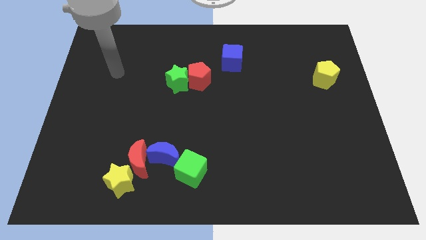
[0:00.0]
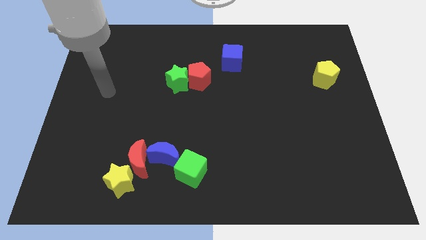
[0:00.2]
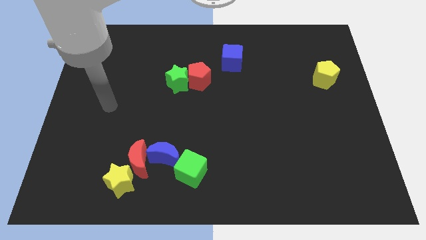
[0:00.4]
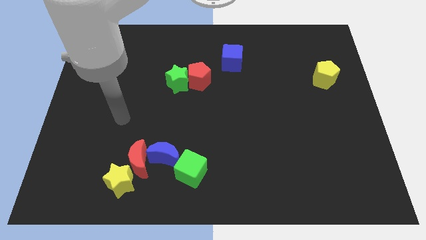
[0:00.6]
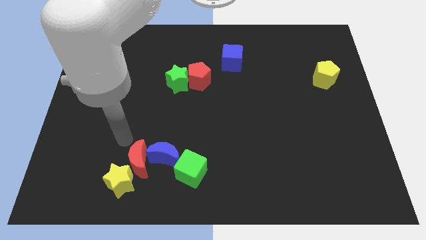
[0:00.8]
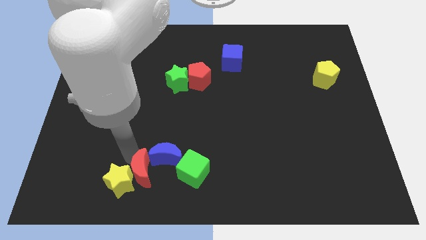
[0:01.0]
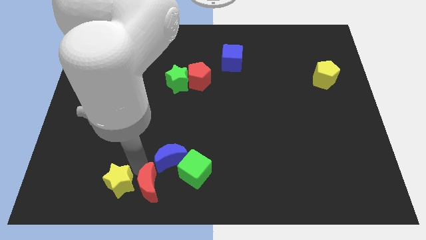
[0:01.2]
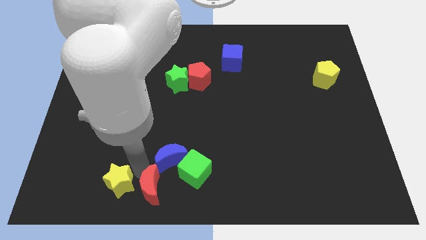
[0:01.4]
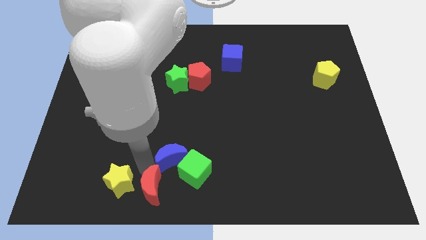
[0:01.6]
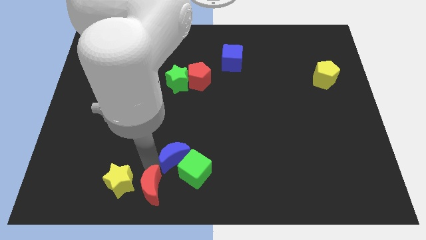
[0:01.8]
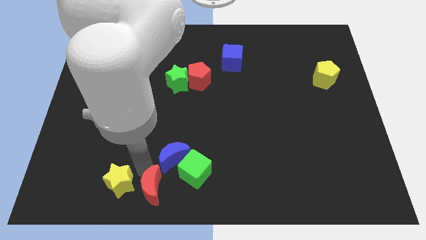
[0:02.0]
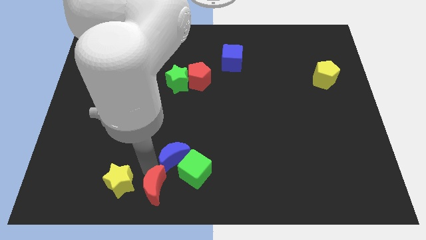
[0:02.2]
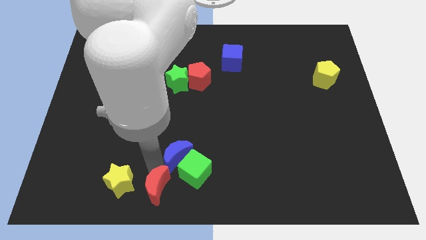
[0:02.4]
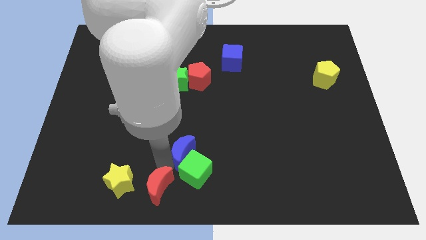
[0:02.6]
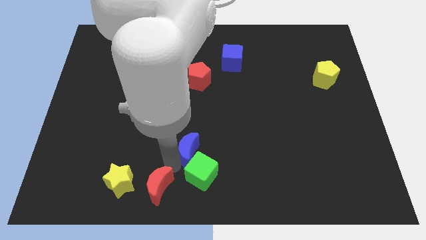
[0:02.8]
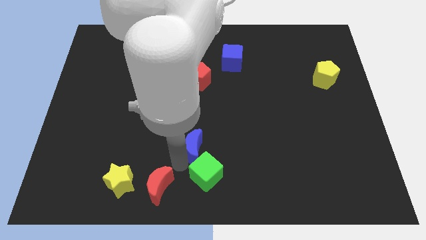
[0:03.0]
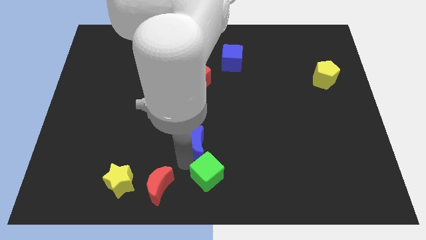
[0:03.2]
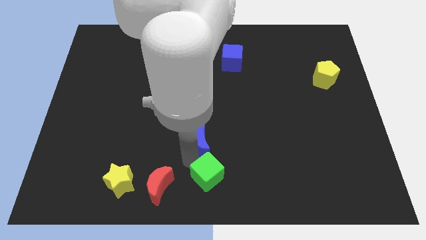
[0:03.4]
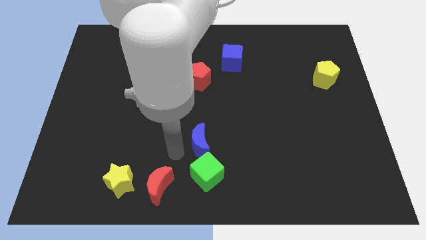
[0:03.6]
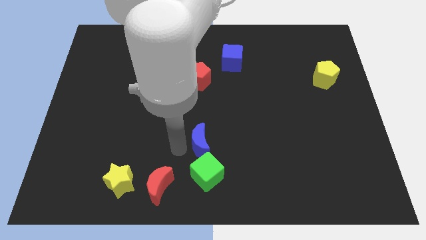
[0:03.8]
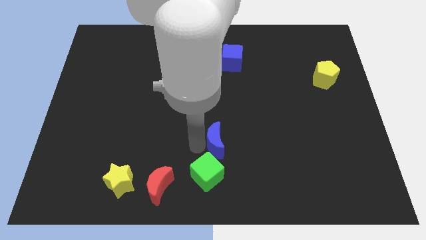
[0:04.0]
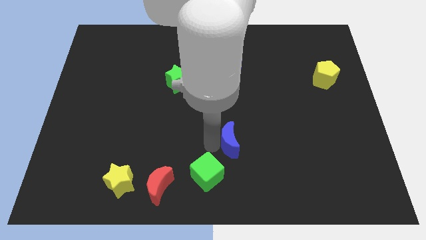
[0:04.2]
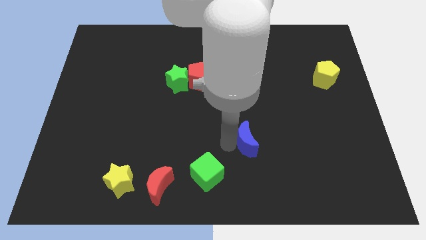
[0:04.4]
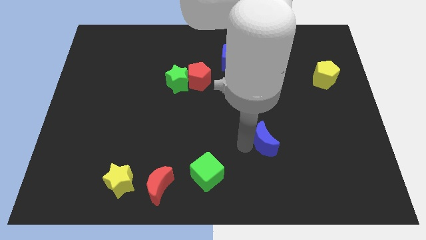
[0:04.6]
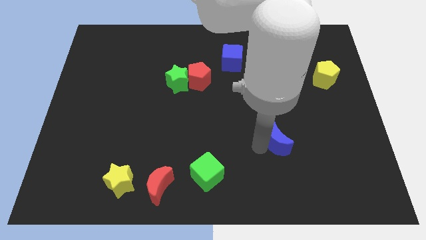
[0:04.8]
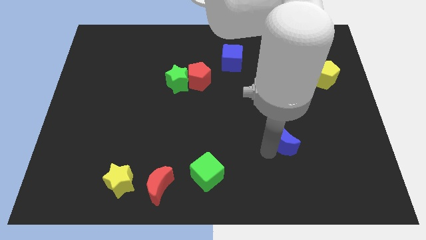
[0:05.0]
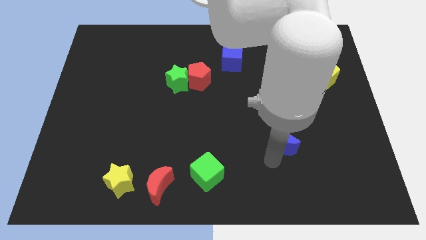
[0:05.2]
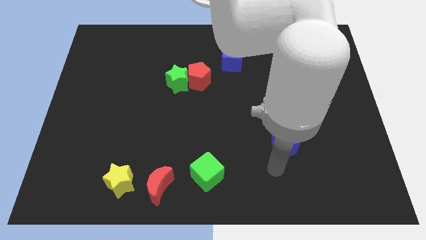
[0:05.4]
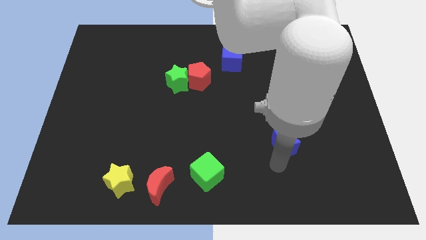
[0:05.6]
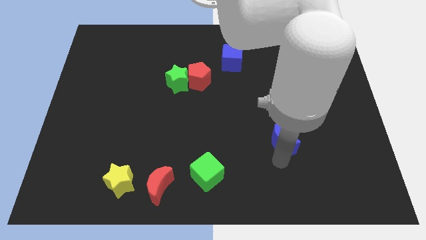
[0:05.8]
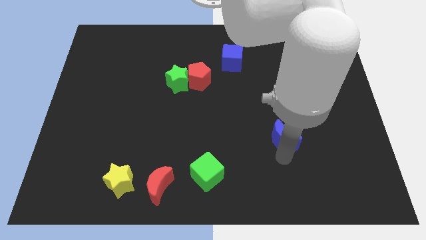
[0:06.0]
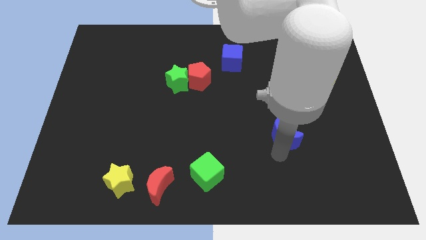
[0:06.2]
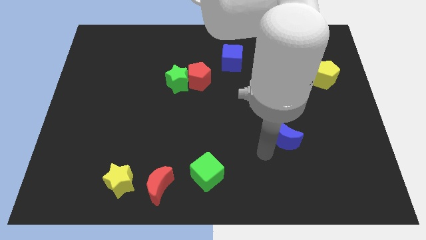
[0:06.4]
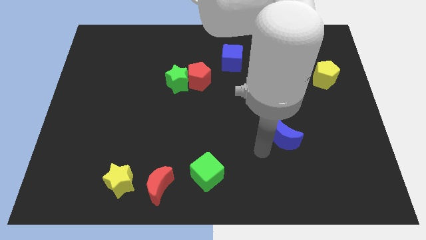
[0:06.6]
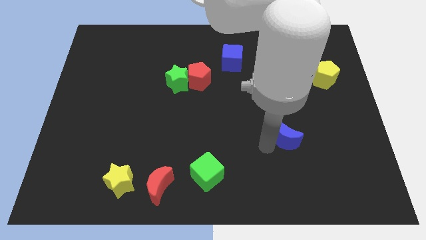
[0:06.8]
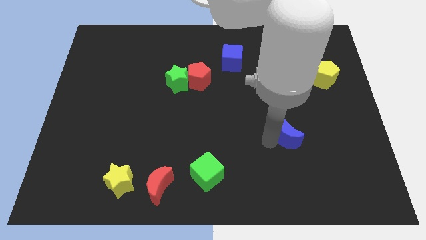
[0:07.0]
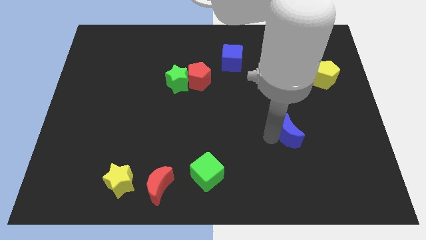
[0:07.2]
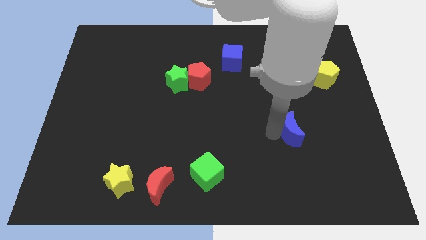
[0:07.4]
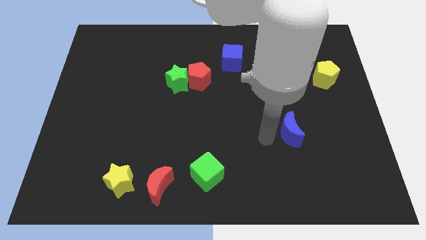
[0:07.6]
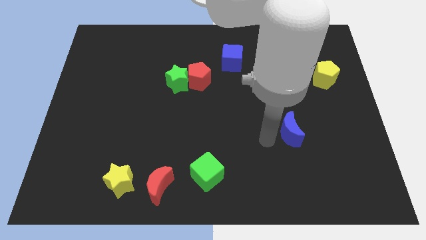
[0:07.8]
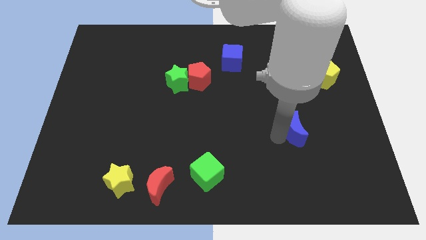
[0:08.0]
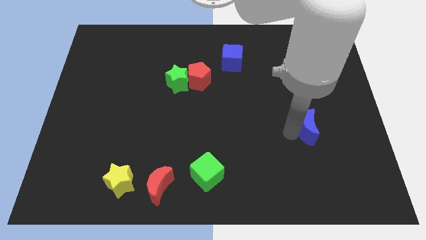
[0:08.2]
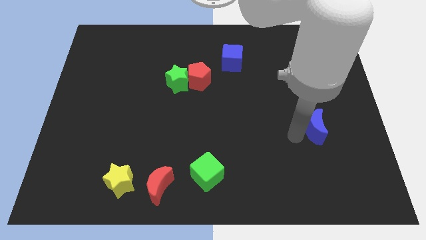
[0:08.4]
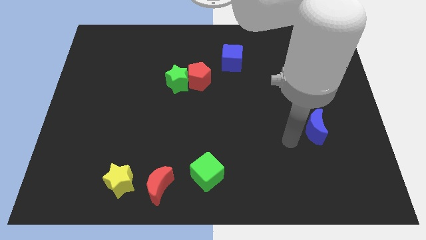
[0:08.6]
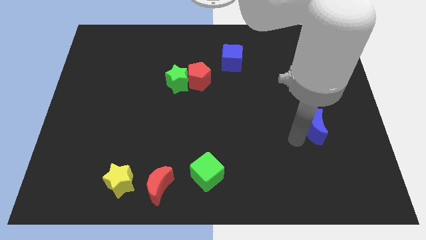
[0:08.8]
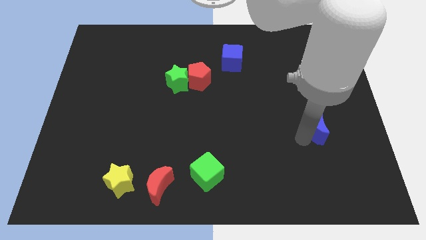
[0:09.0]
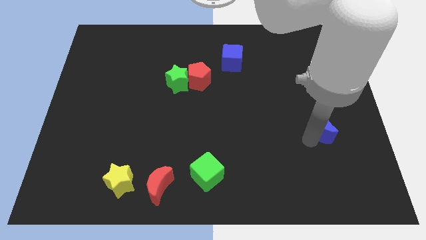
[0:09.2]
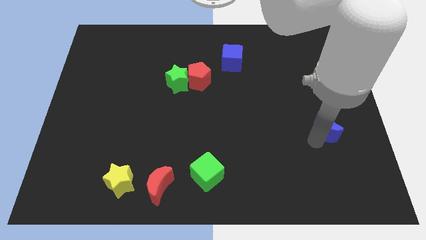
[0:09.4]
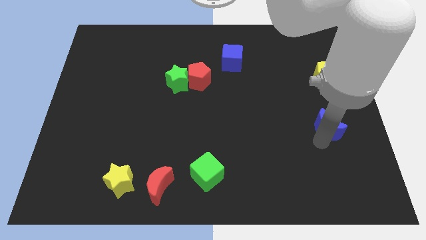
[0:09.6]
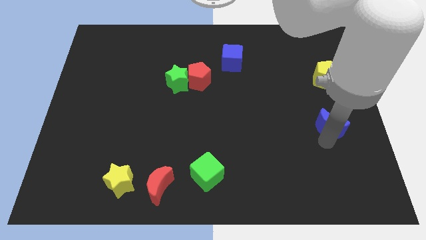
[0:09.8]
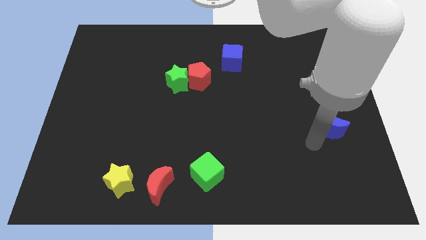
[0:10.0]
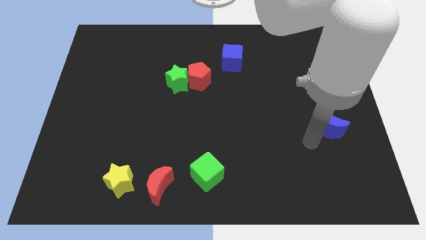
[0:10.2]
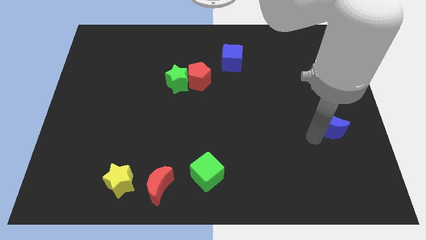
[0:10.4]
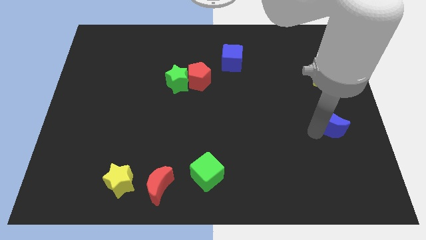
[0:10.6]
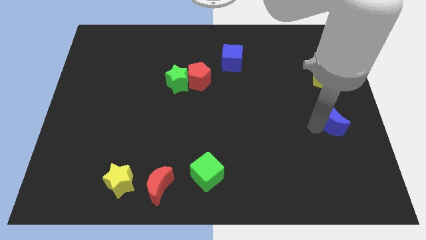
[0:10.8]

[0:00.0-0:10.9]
push the blue moon to the right side of the board

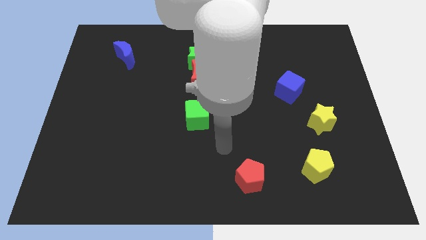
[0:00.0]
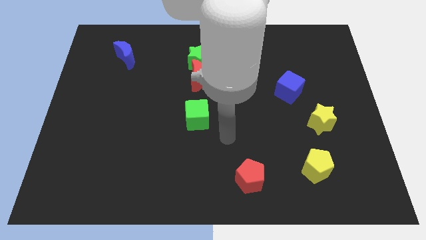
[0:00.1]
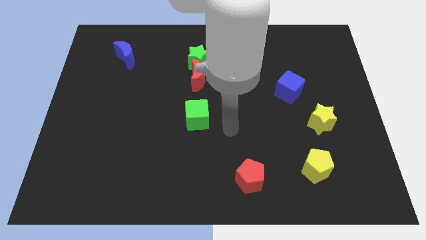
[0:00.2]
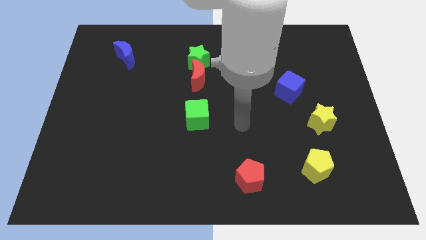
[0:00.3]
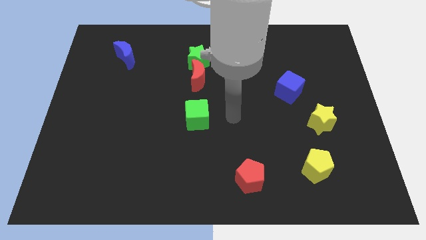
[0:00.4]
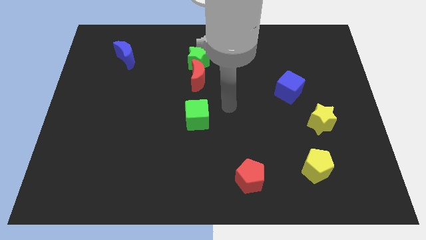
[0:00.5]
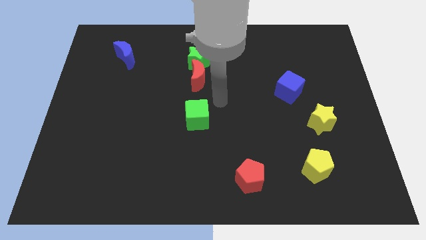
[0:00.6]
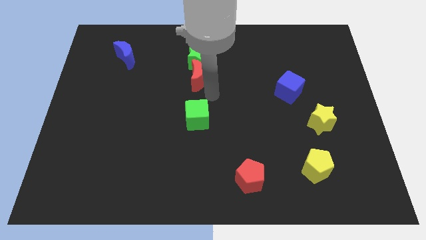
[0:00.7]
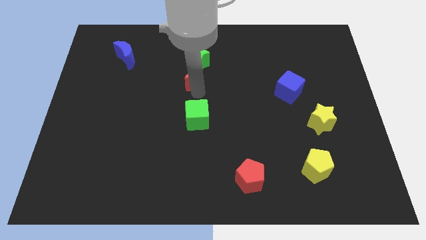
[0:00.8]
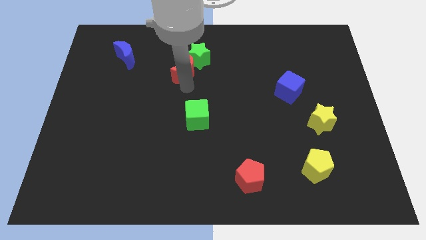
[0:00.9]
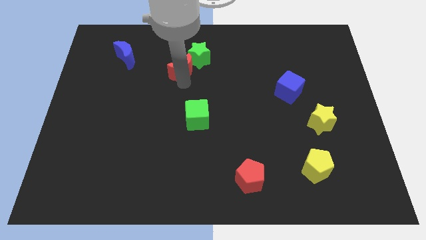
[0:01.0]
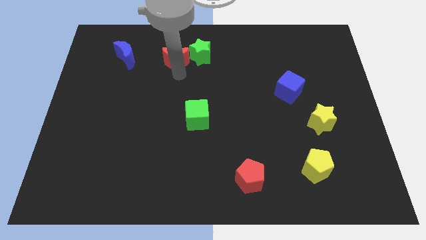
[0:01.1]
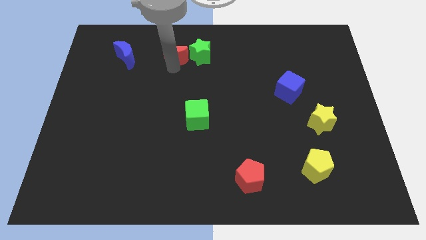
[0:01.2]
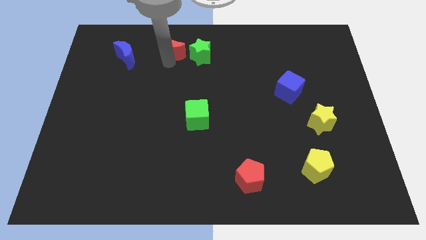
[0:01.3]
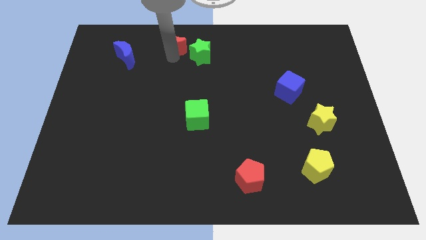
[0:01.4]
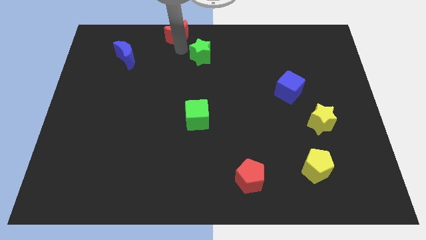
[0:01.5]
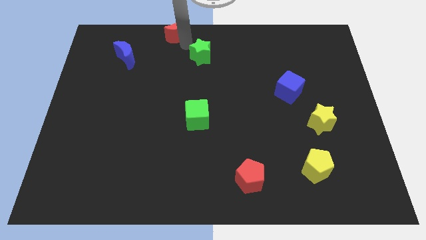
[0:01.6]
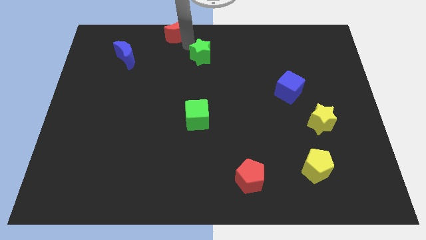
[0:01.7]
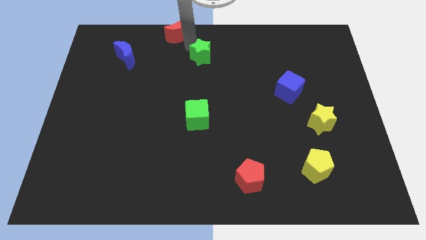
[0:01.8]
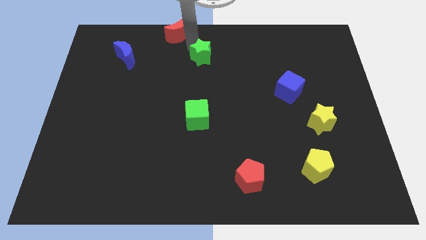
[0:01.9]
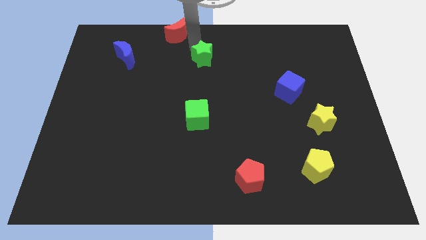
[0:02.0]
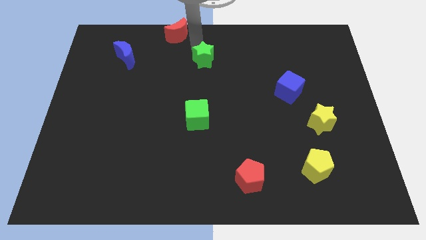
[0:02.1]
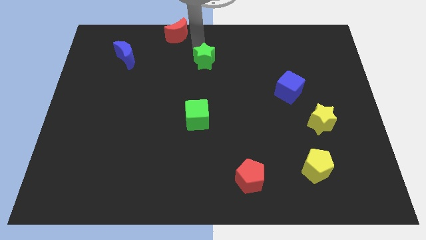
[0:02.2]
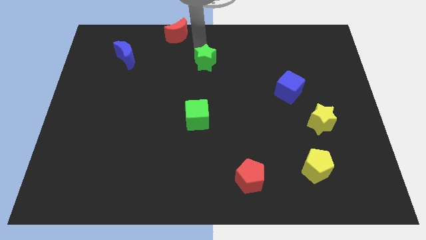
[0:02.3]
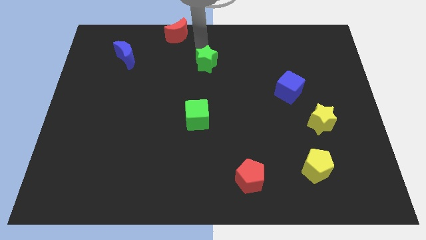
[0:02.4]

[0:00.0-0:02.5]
push the green star to the center of the board

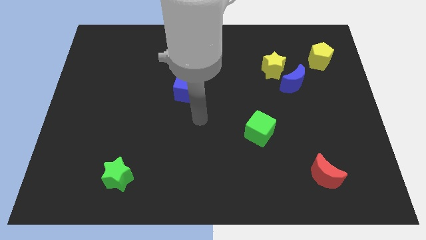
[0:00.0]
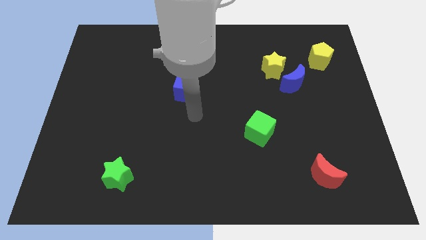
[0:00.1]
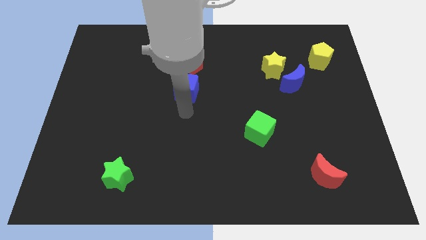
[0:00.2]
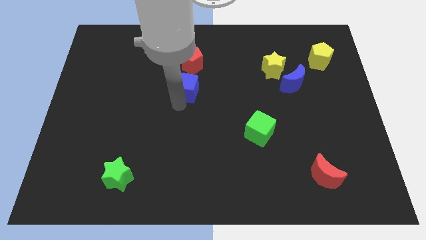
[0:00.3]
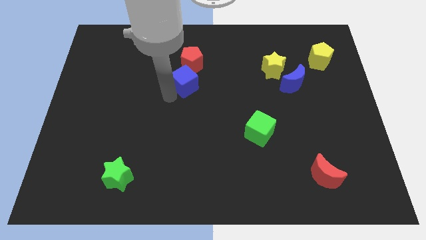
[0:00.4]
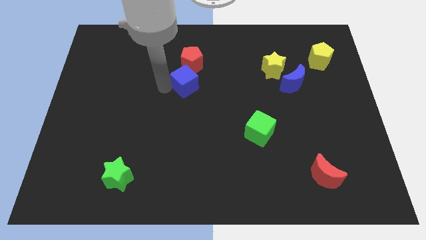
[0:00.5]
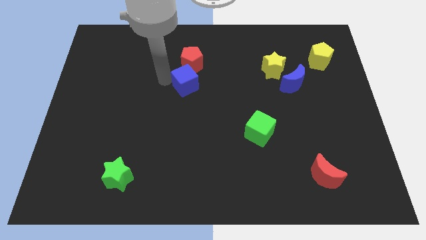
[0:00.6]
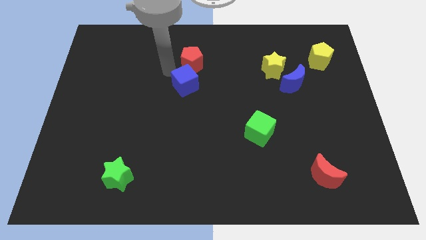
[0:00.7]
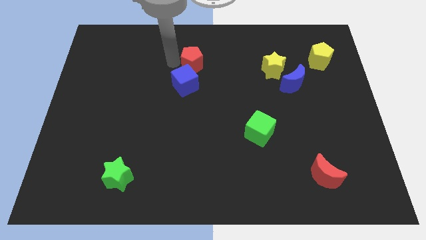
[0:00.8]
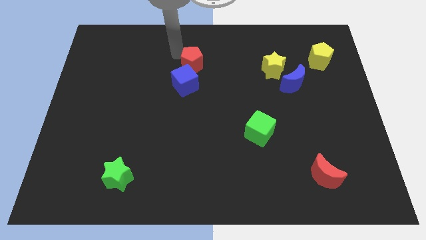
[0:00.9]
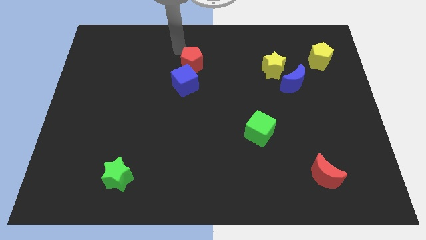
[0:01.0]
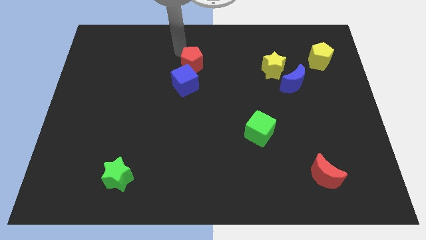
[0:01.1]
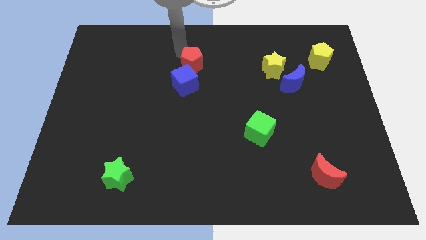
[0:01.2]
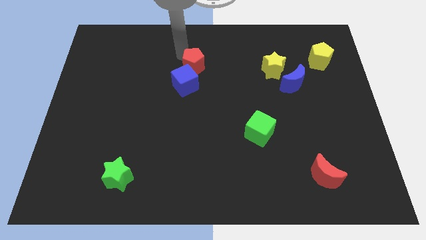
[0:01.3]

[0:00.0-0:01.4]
push the red pentagon to the center of the board
